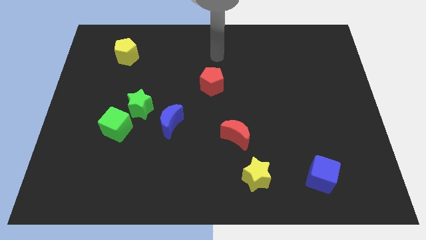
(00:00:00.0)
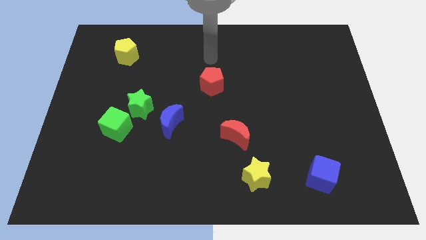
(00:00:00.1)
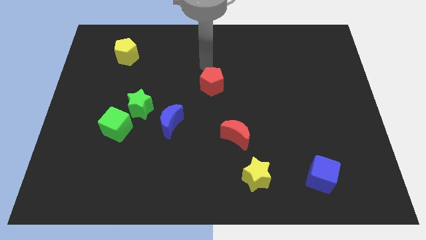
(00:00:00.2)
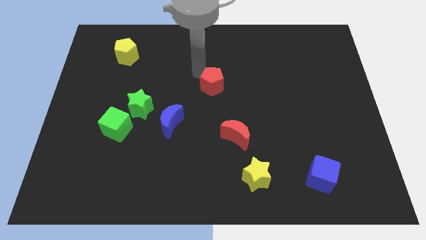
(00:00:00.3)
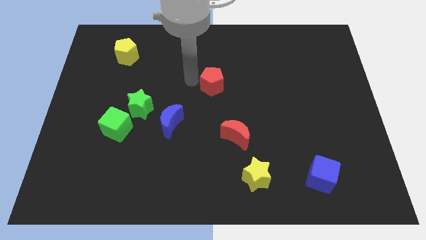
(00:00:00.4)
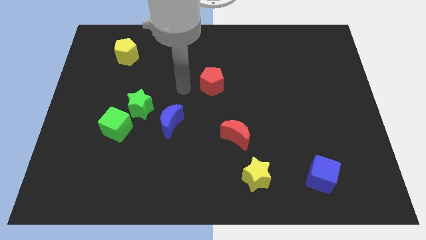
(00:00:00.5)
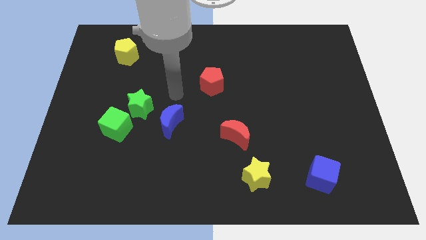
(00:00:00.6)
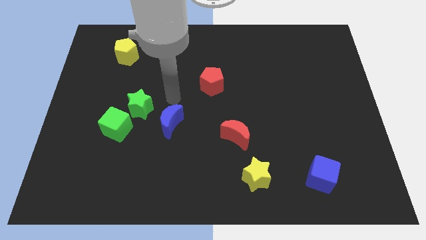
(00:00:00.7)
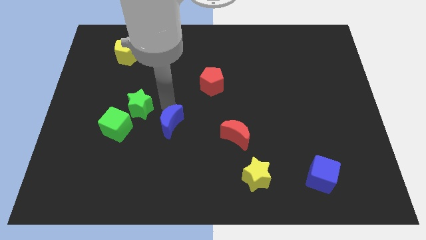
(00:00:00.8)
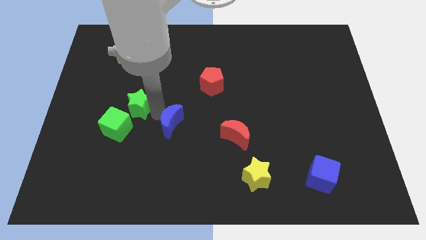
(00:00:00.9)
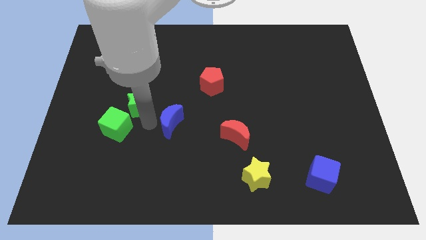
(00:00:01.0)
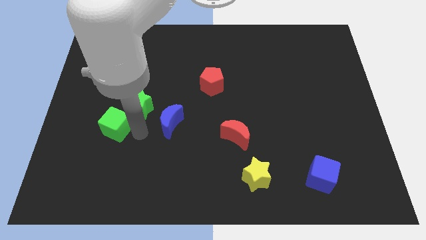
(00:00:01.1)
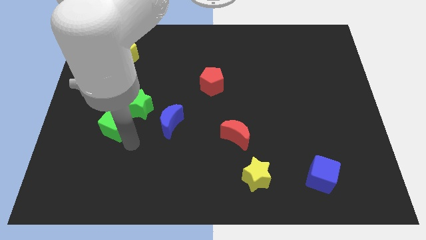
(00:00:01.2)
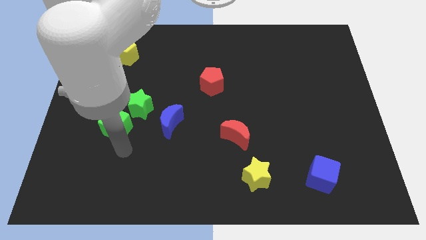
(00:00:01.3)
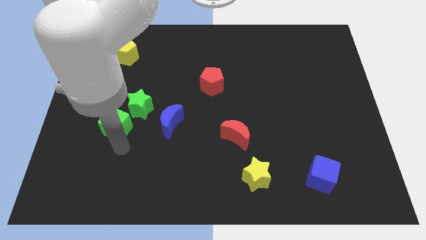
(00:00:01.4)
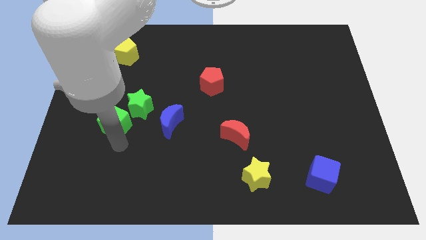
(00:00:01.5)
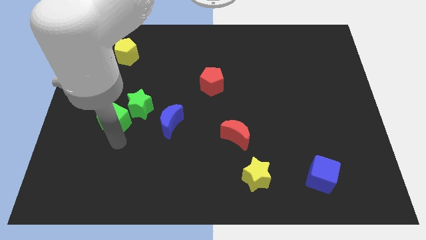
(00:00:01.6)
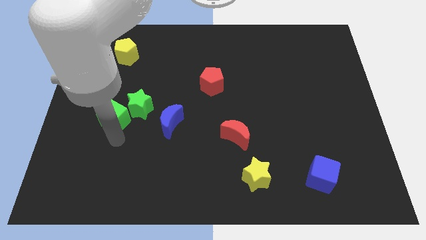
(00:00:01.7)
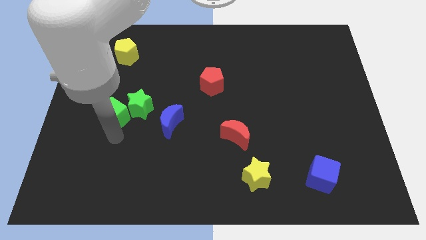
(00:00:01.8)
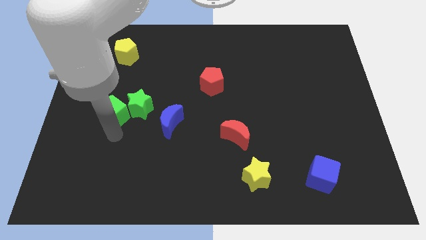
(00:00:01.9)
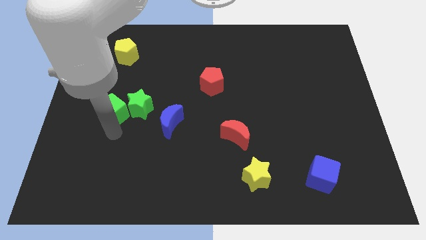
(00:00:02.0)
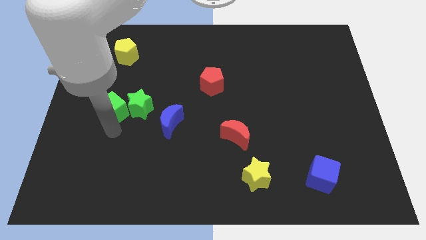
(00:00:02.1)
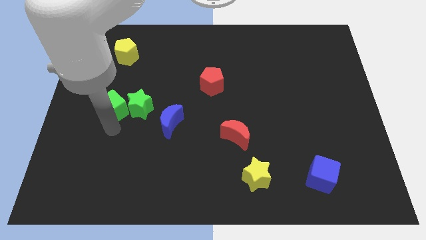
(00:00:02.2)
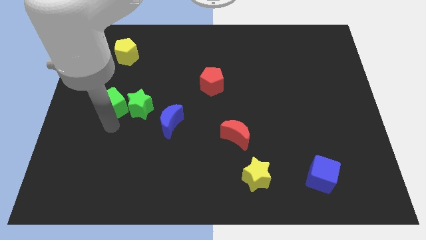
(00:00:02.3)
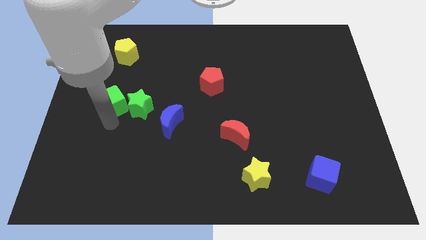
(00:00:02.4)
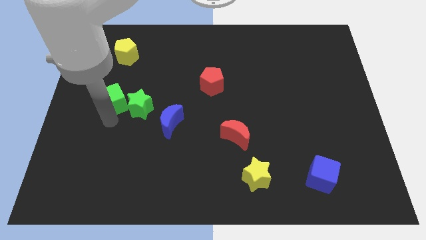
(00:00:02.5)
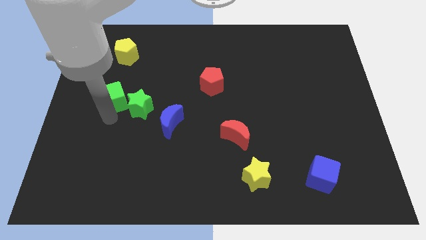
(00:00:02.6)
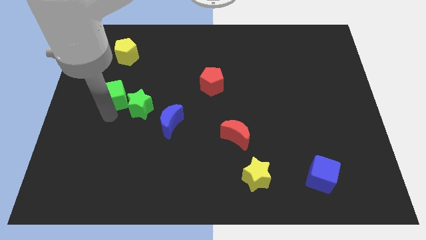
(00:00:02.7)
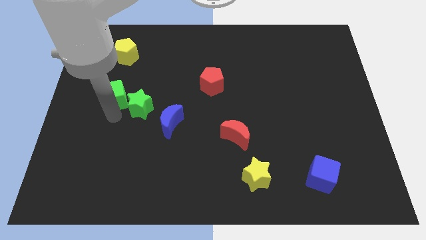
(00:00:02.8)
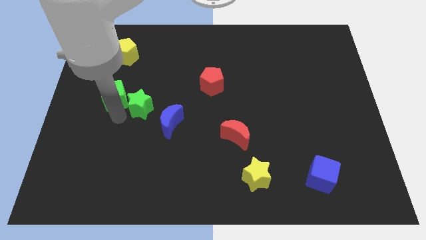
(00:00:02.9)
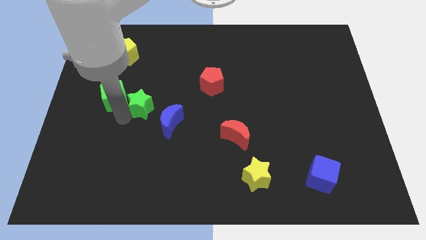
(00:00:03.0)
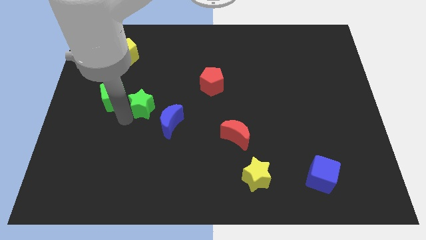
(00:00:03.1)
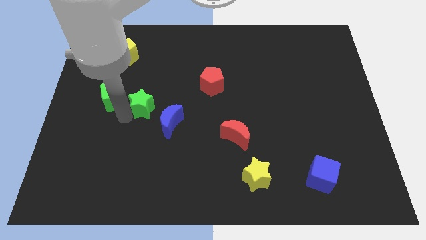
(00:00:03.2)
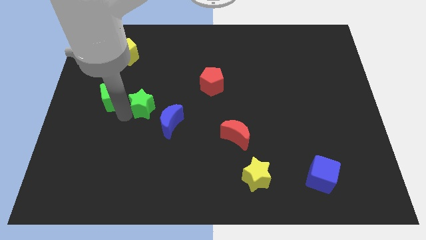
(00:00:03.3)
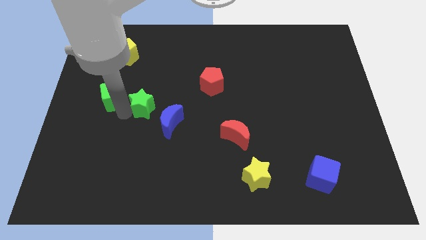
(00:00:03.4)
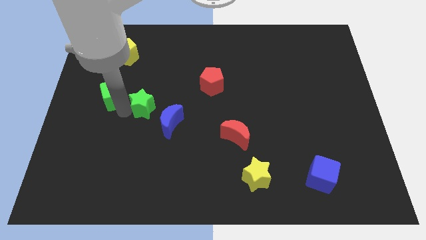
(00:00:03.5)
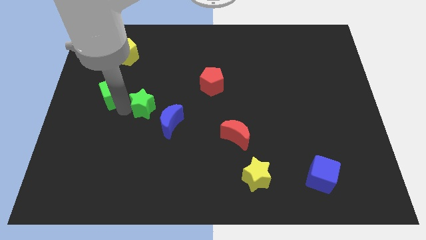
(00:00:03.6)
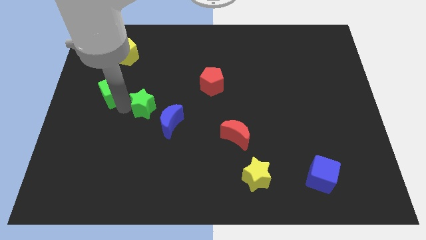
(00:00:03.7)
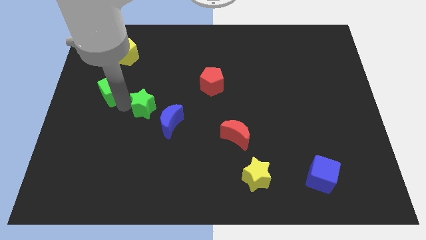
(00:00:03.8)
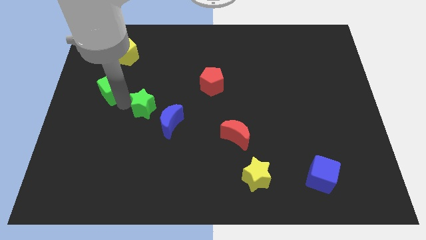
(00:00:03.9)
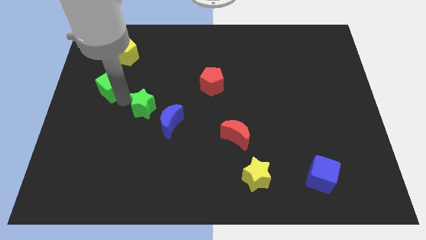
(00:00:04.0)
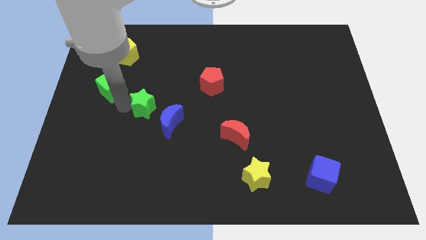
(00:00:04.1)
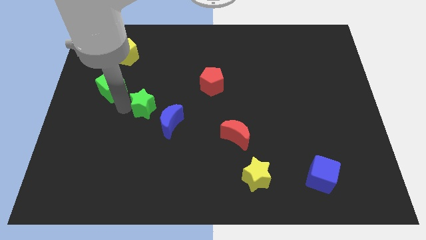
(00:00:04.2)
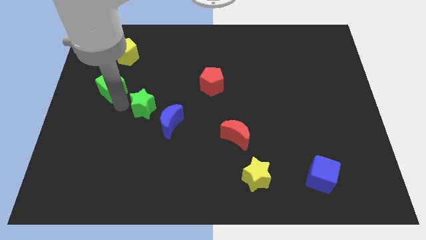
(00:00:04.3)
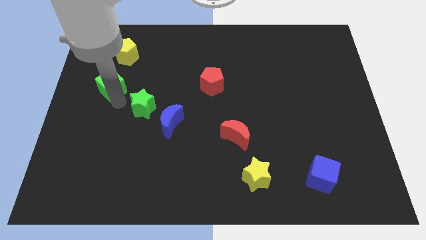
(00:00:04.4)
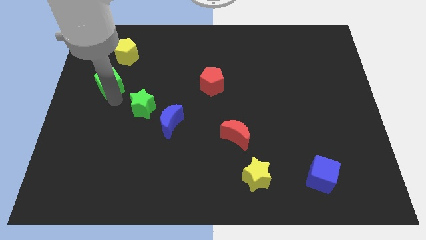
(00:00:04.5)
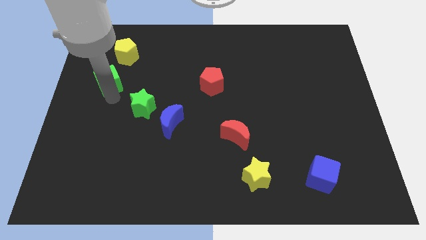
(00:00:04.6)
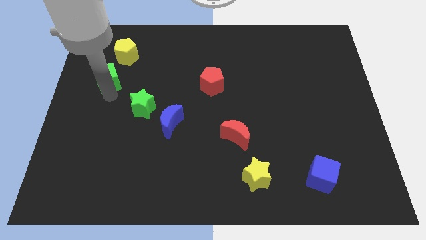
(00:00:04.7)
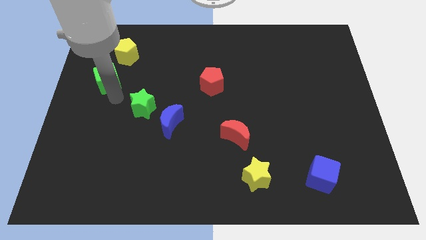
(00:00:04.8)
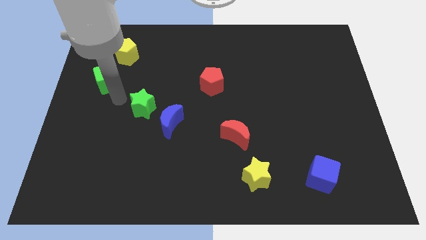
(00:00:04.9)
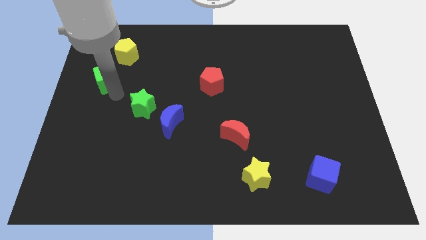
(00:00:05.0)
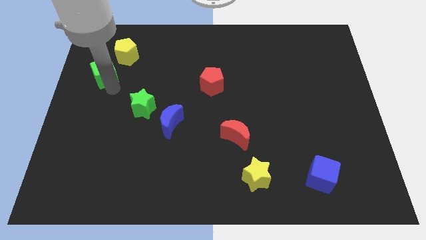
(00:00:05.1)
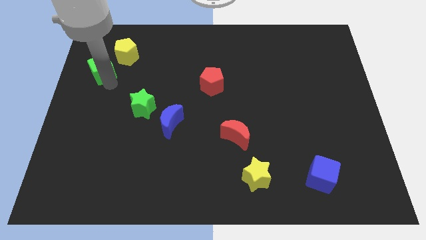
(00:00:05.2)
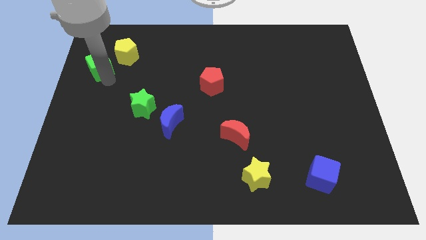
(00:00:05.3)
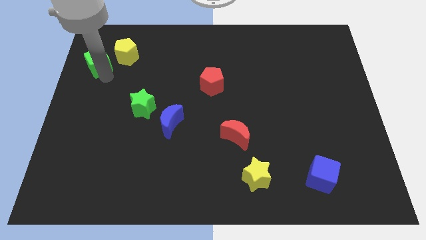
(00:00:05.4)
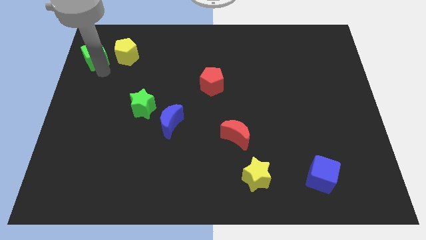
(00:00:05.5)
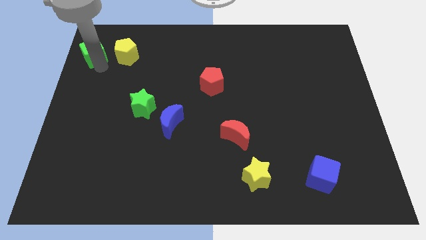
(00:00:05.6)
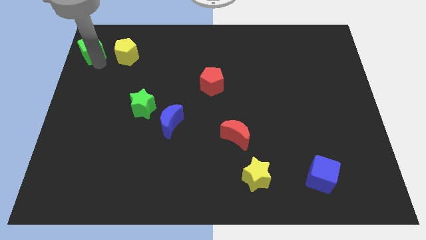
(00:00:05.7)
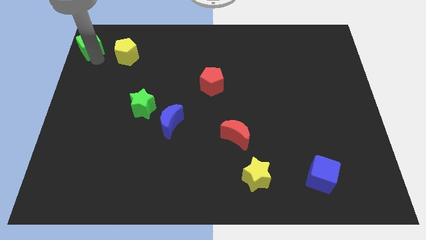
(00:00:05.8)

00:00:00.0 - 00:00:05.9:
put the green cube to the top left of the board
